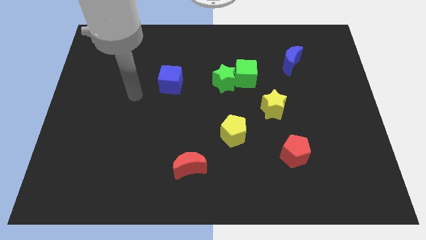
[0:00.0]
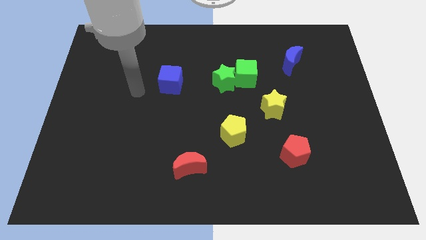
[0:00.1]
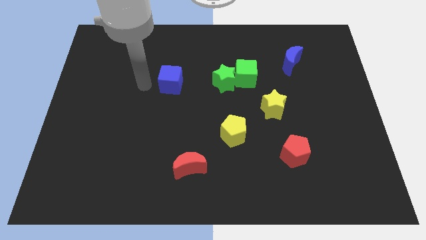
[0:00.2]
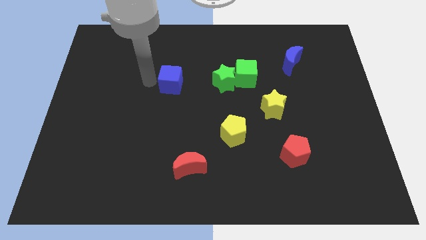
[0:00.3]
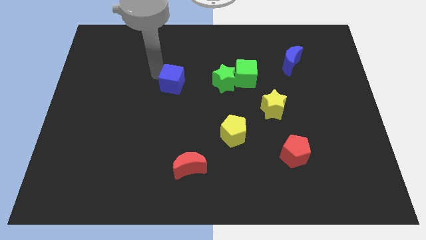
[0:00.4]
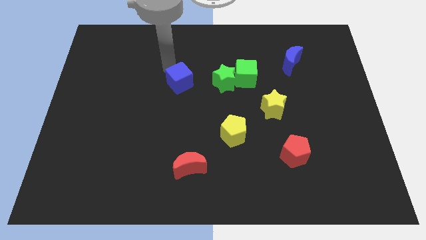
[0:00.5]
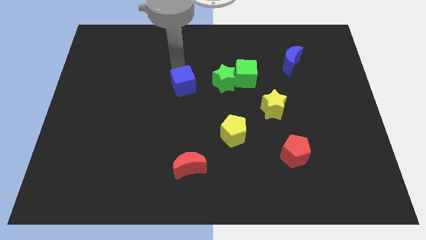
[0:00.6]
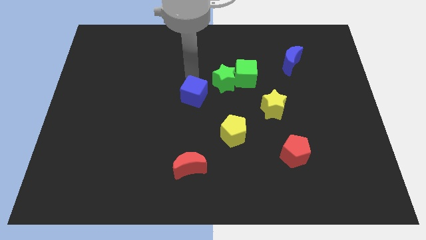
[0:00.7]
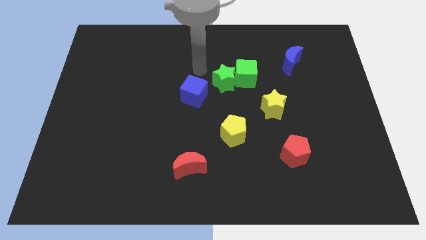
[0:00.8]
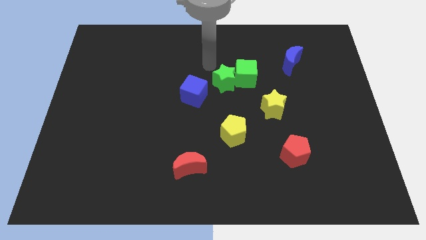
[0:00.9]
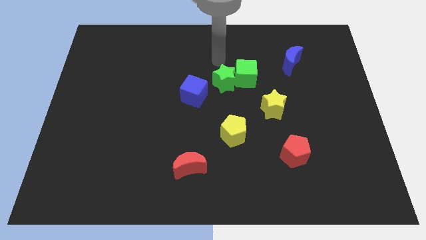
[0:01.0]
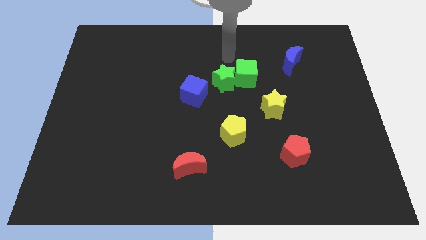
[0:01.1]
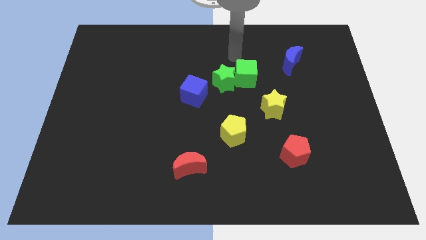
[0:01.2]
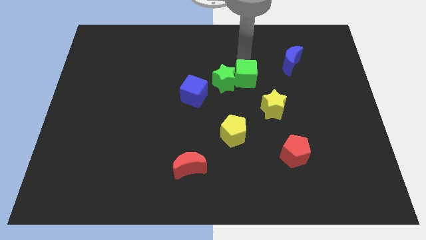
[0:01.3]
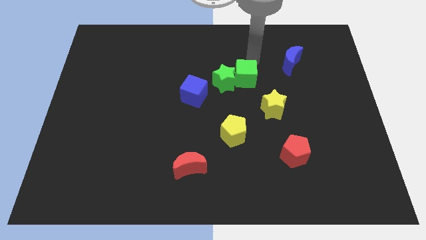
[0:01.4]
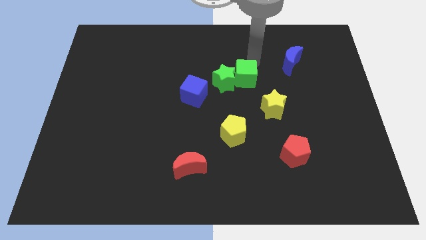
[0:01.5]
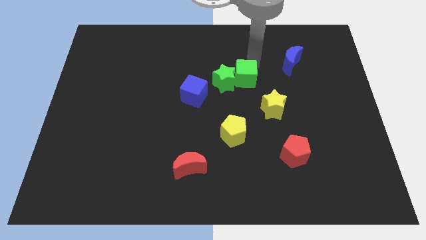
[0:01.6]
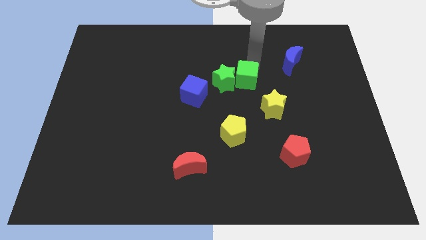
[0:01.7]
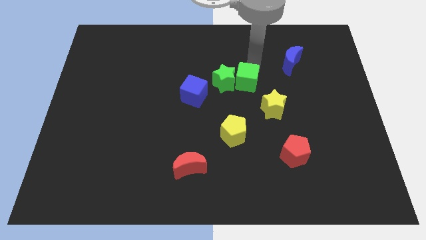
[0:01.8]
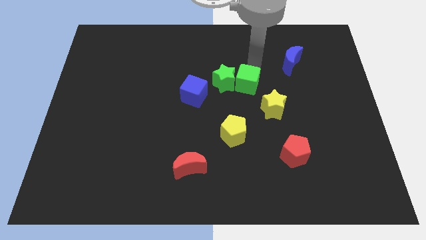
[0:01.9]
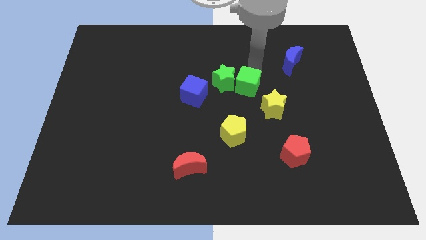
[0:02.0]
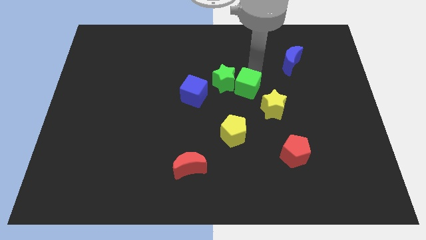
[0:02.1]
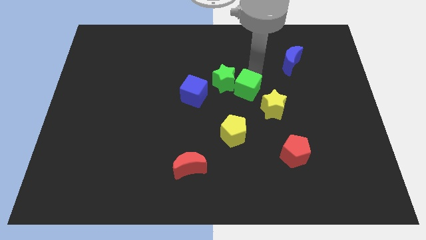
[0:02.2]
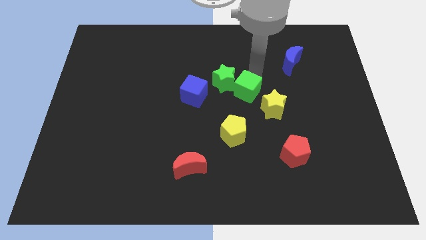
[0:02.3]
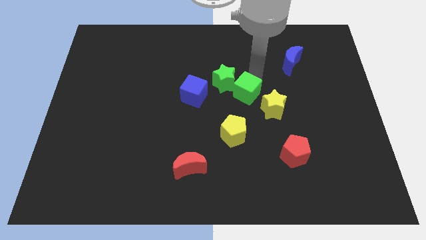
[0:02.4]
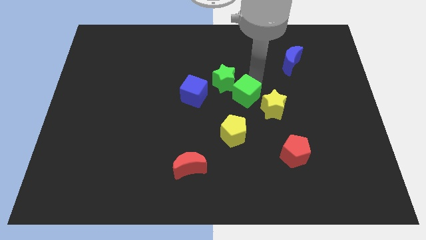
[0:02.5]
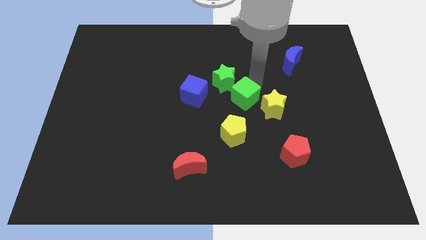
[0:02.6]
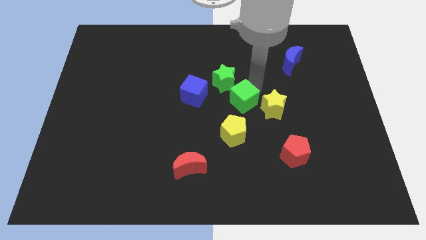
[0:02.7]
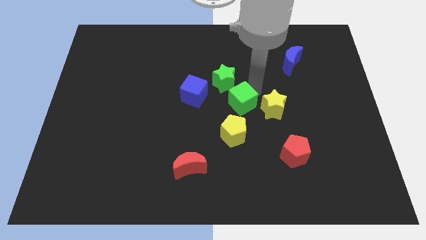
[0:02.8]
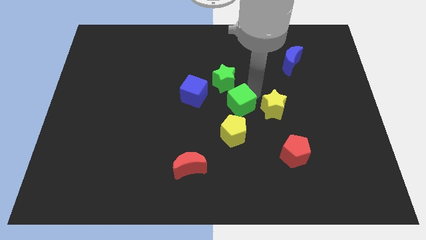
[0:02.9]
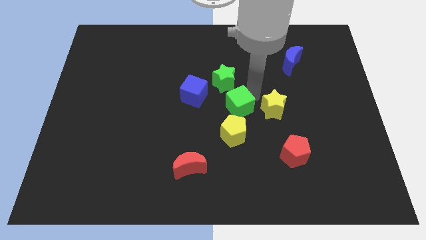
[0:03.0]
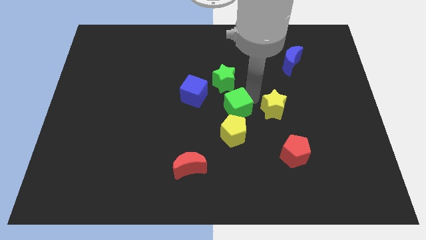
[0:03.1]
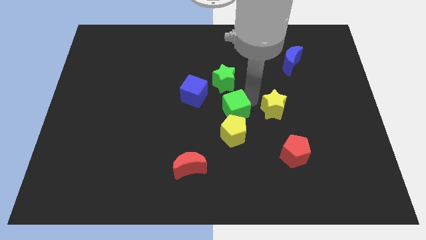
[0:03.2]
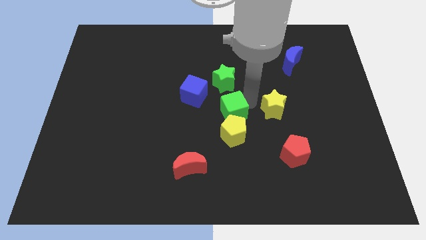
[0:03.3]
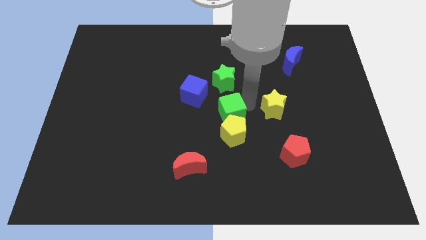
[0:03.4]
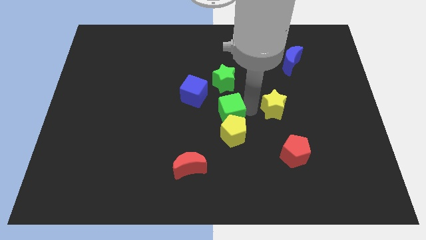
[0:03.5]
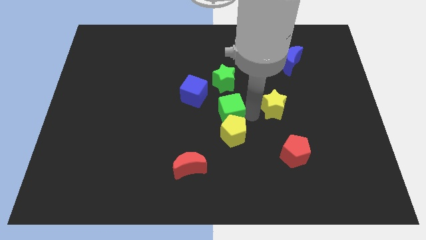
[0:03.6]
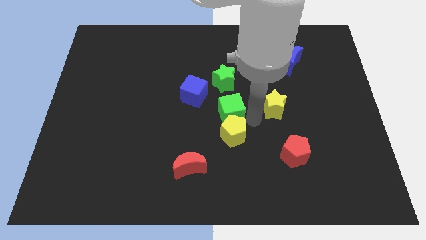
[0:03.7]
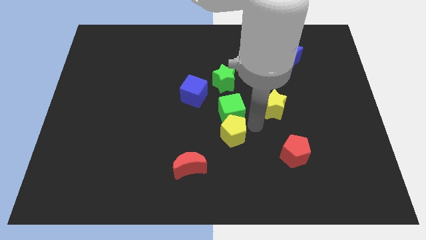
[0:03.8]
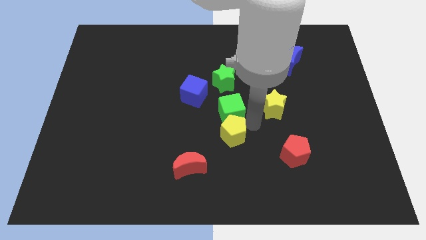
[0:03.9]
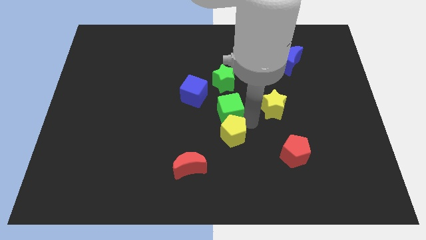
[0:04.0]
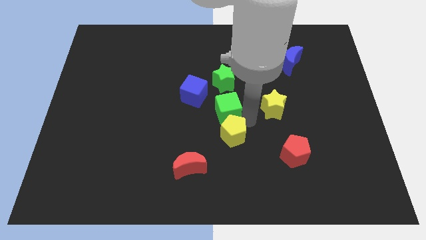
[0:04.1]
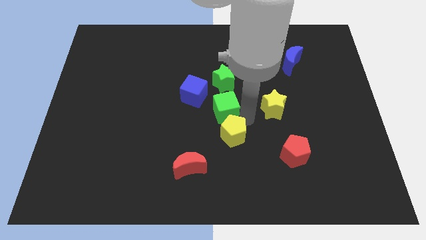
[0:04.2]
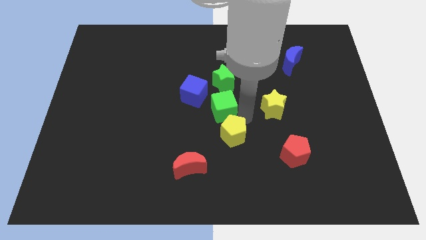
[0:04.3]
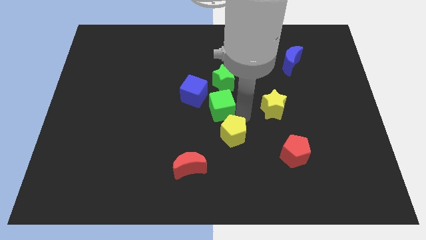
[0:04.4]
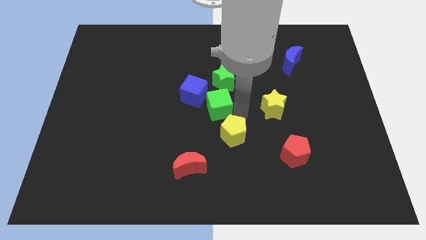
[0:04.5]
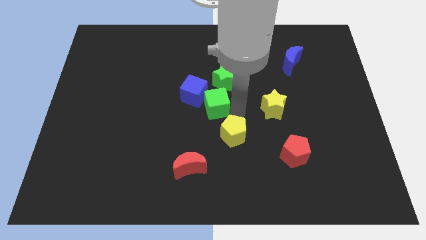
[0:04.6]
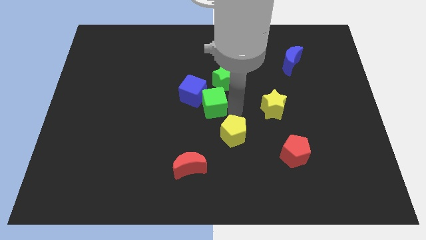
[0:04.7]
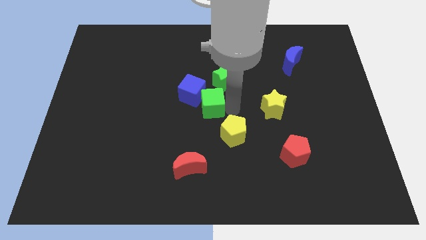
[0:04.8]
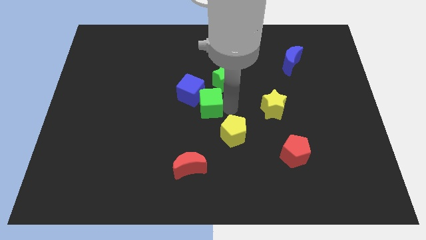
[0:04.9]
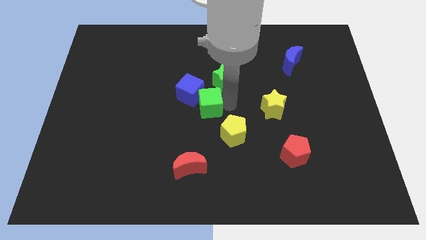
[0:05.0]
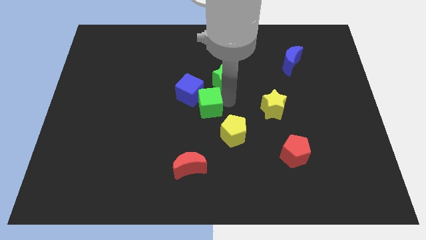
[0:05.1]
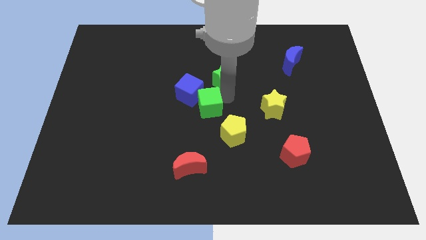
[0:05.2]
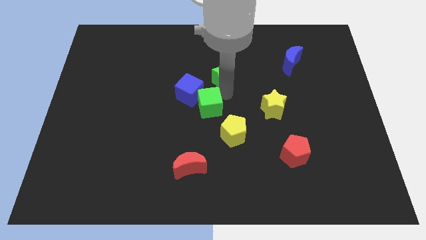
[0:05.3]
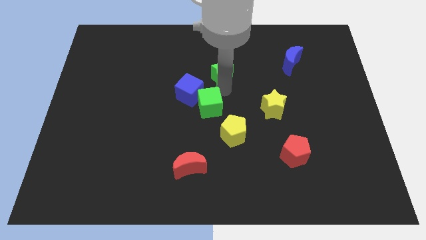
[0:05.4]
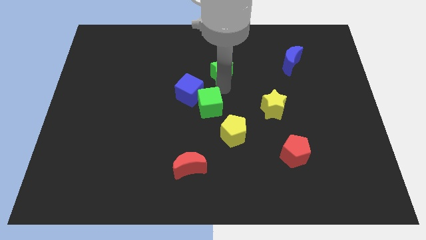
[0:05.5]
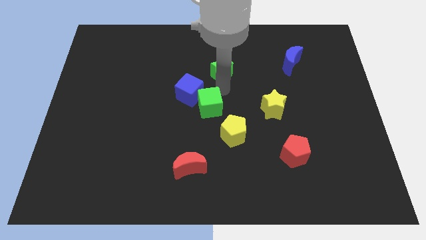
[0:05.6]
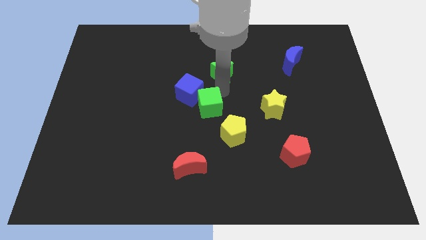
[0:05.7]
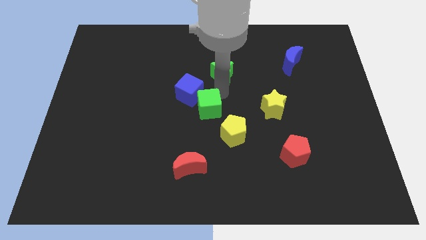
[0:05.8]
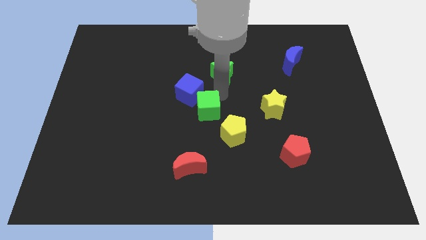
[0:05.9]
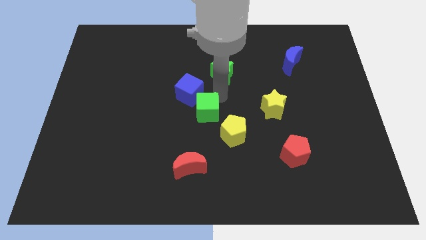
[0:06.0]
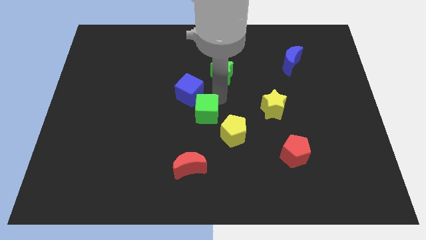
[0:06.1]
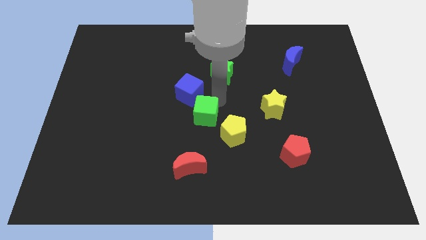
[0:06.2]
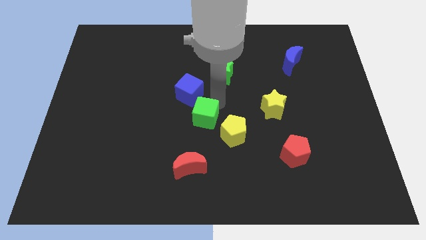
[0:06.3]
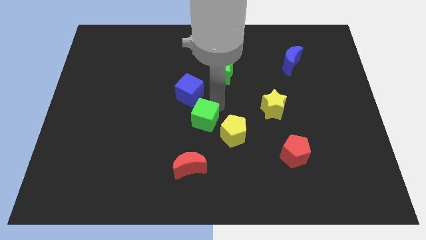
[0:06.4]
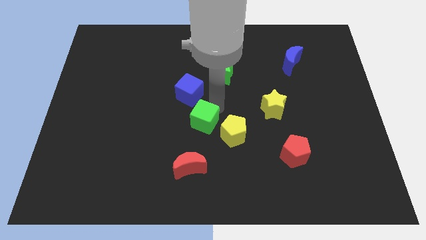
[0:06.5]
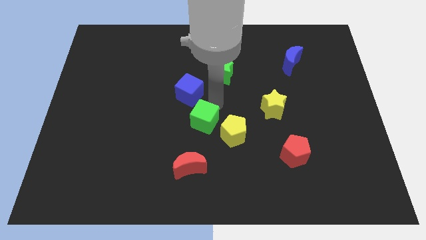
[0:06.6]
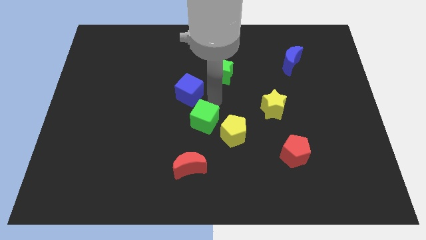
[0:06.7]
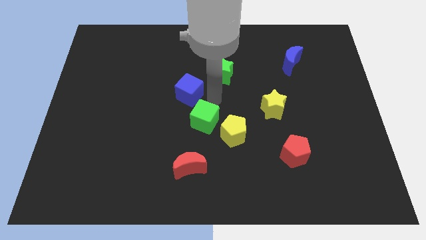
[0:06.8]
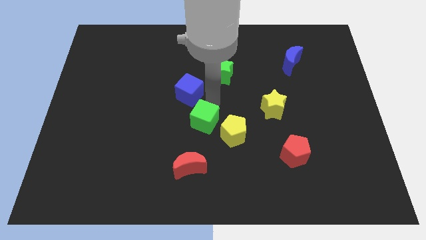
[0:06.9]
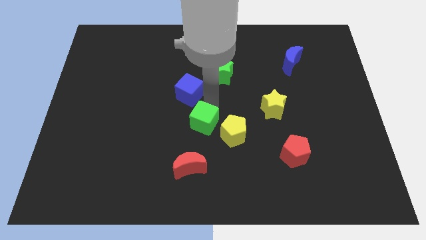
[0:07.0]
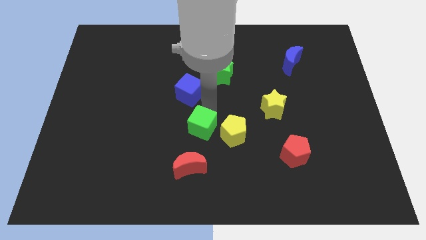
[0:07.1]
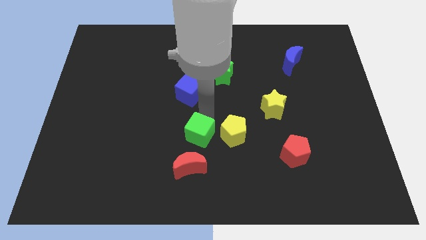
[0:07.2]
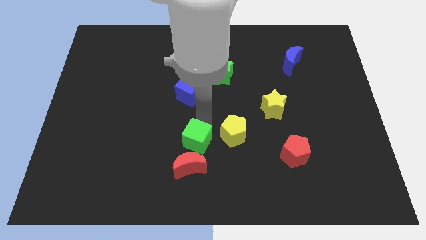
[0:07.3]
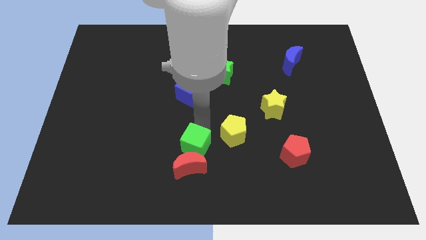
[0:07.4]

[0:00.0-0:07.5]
move the green cube next to the red moon

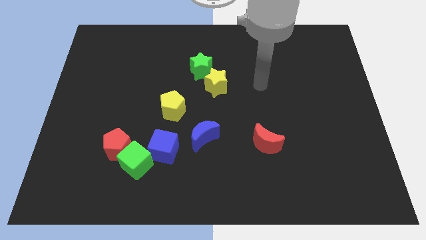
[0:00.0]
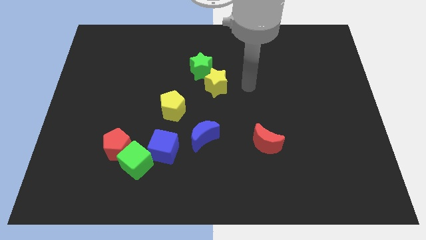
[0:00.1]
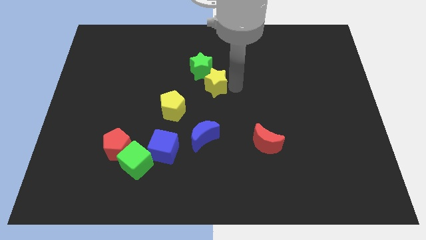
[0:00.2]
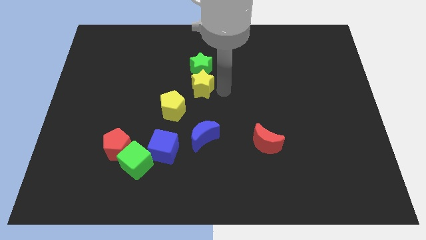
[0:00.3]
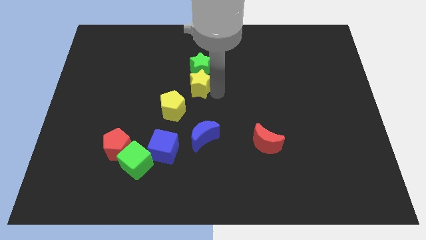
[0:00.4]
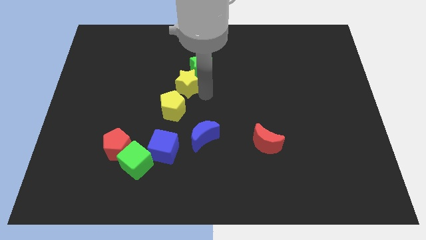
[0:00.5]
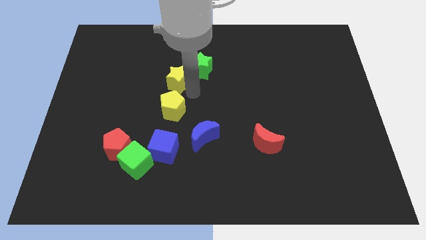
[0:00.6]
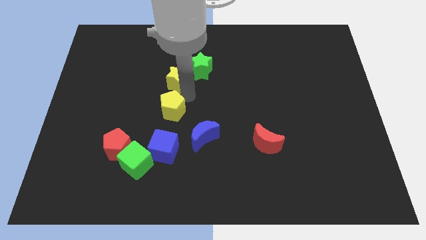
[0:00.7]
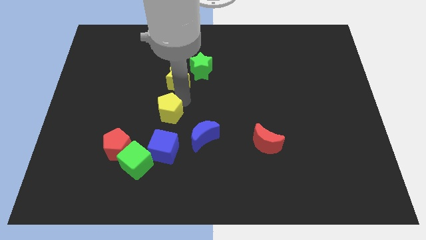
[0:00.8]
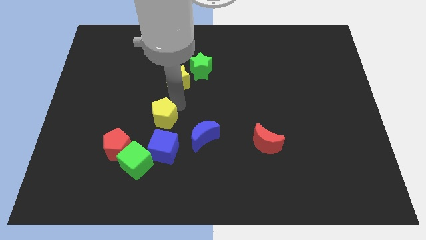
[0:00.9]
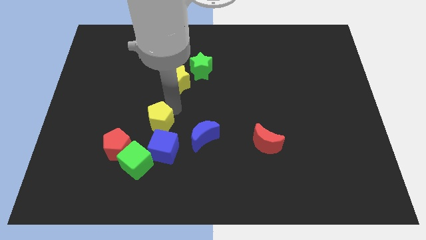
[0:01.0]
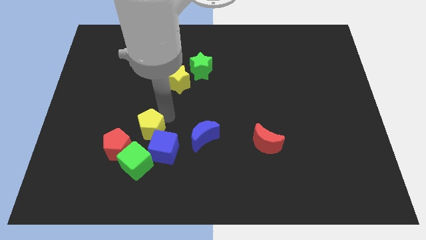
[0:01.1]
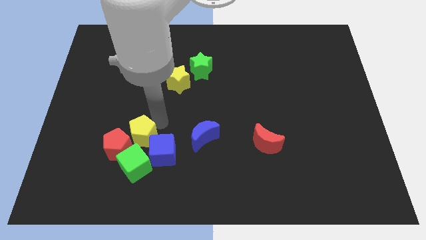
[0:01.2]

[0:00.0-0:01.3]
slide the yellow pentagon towards the red pentagon
